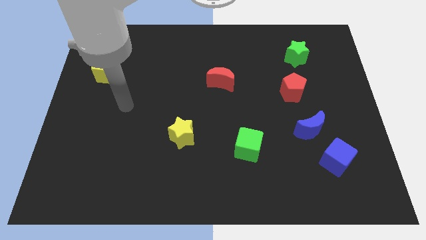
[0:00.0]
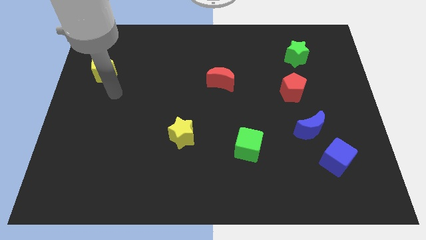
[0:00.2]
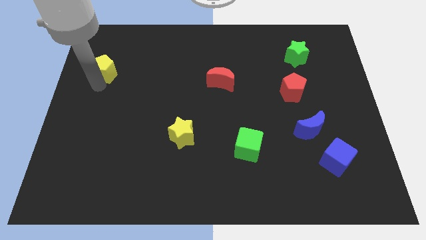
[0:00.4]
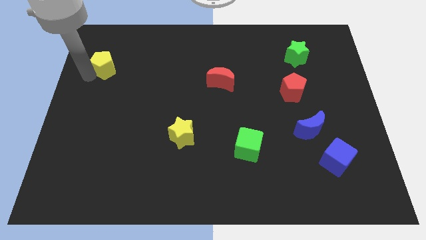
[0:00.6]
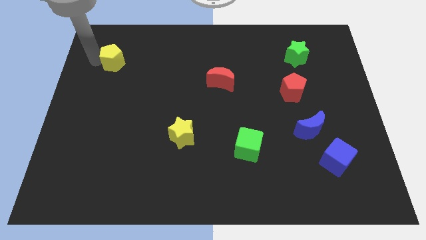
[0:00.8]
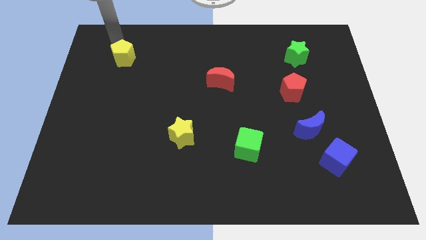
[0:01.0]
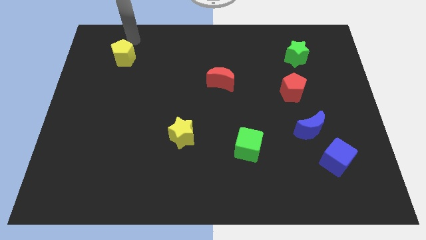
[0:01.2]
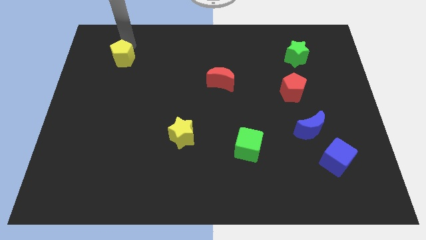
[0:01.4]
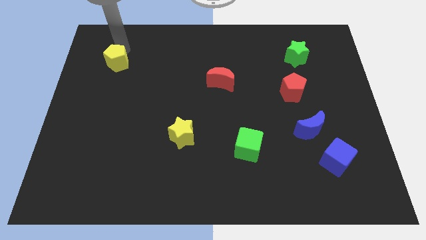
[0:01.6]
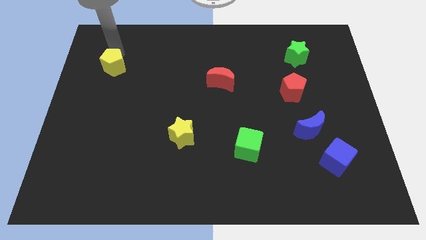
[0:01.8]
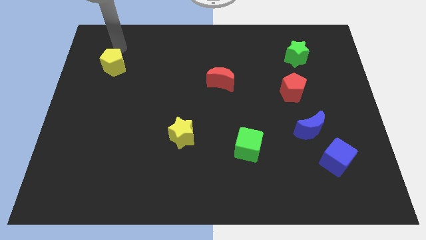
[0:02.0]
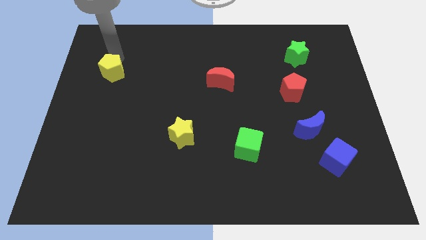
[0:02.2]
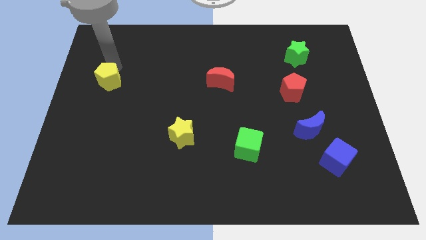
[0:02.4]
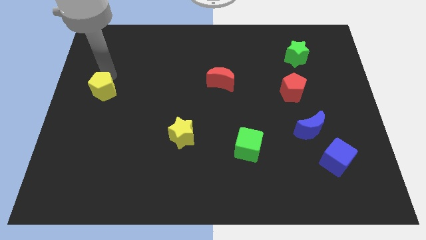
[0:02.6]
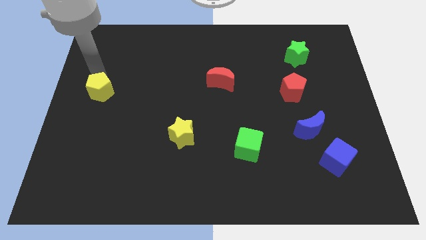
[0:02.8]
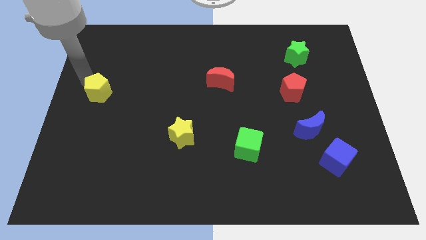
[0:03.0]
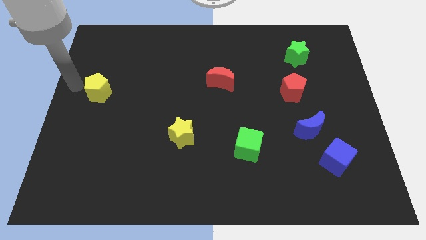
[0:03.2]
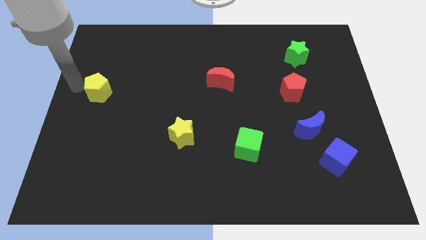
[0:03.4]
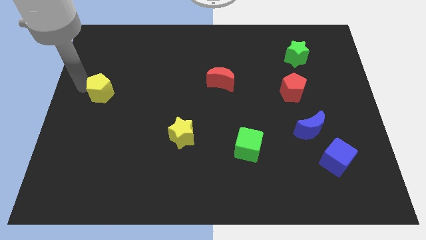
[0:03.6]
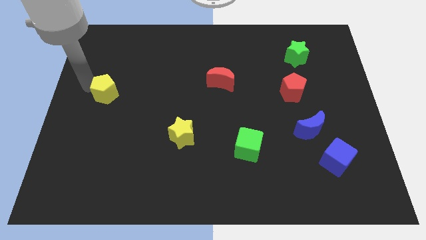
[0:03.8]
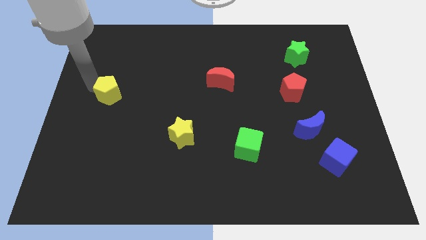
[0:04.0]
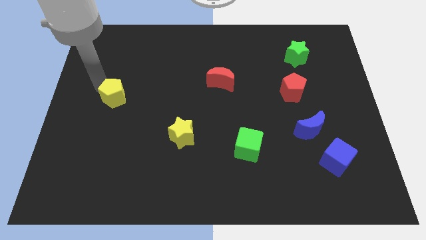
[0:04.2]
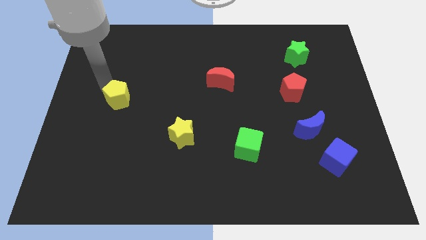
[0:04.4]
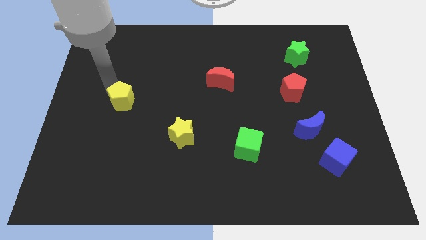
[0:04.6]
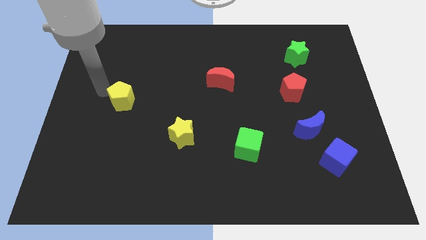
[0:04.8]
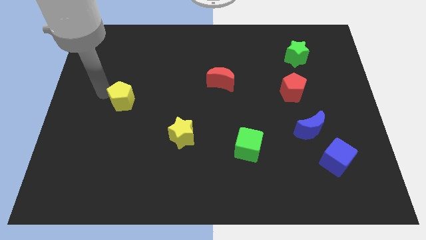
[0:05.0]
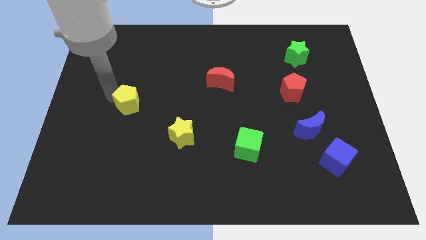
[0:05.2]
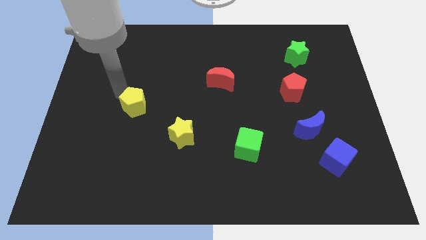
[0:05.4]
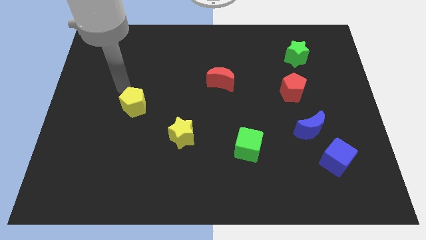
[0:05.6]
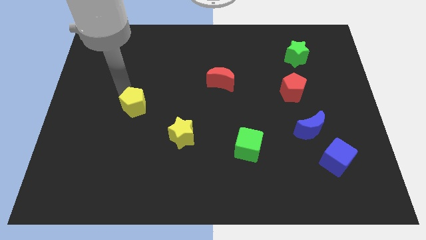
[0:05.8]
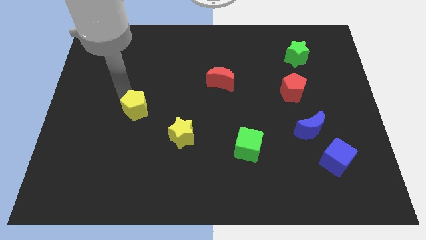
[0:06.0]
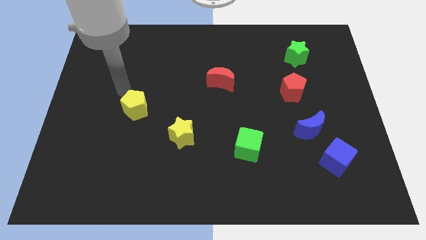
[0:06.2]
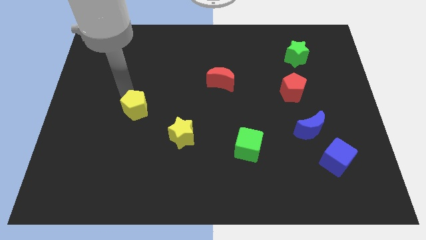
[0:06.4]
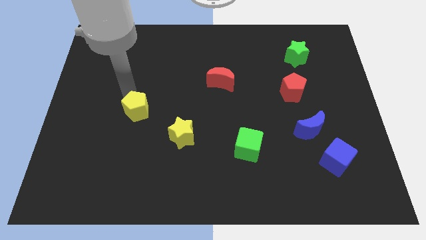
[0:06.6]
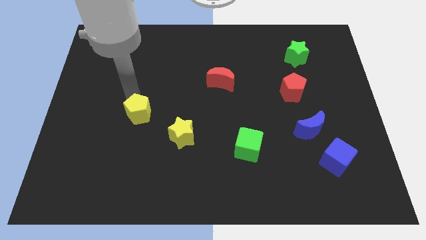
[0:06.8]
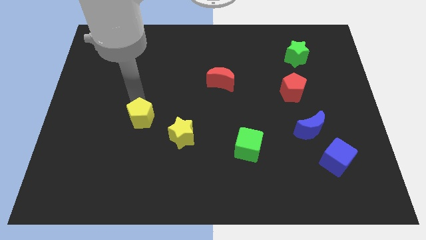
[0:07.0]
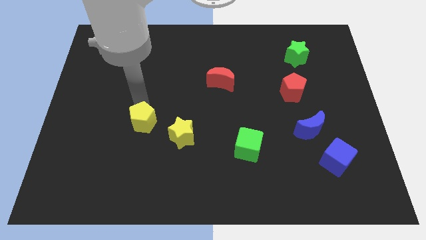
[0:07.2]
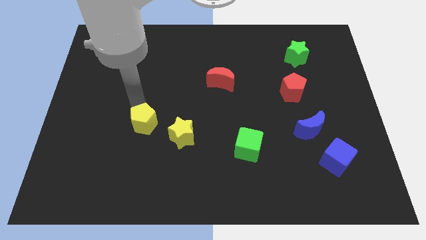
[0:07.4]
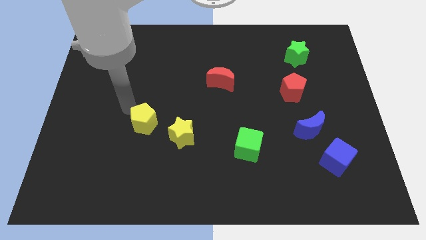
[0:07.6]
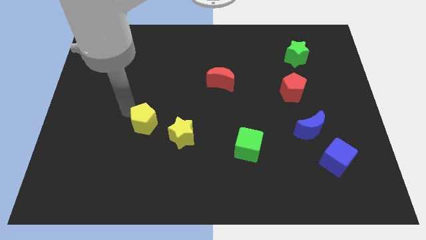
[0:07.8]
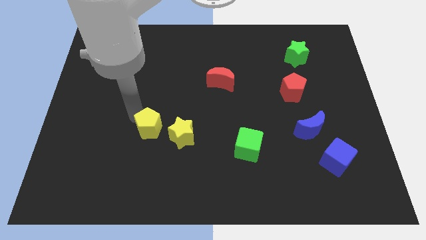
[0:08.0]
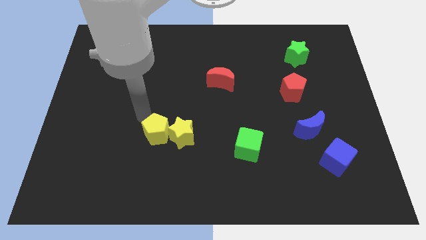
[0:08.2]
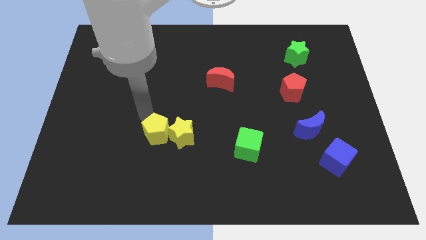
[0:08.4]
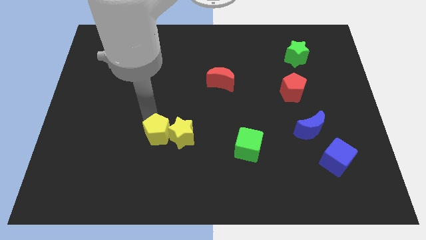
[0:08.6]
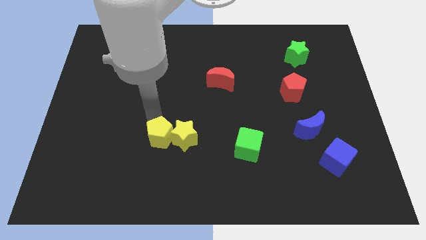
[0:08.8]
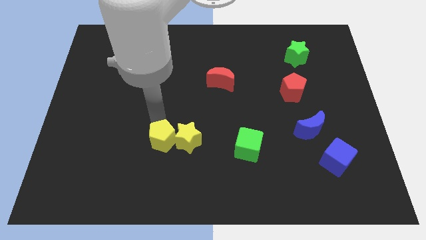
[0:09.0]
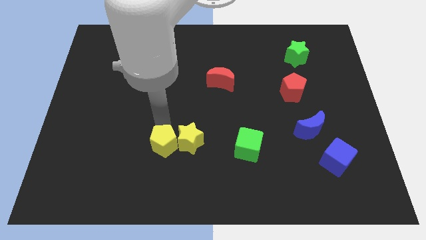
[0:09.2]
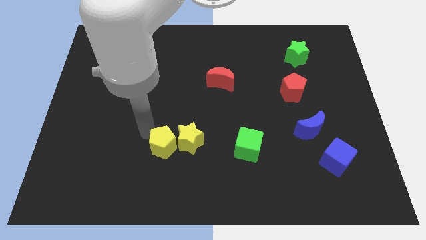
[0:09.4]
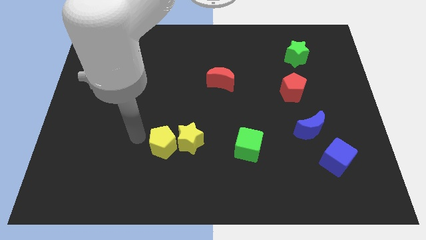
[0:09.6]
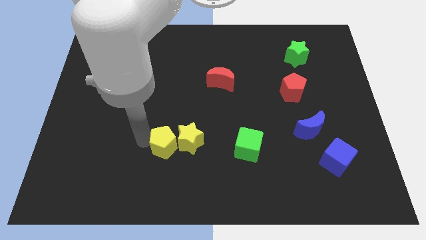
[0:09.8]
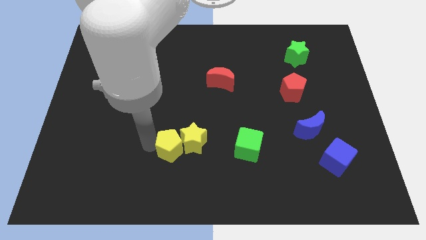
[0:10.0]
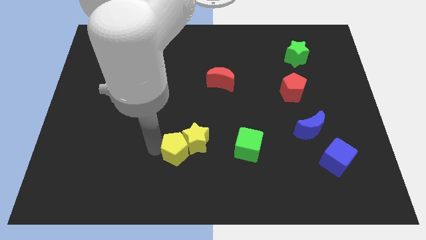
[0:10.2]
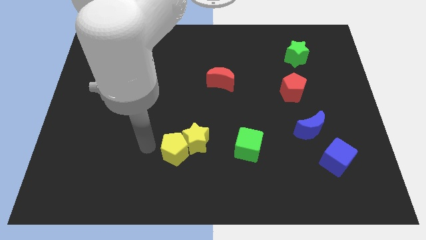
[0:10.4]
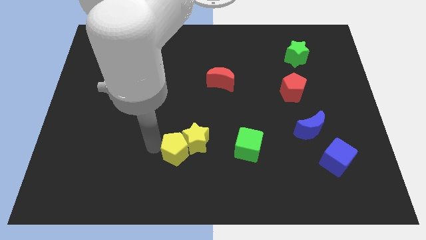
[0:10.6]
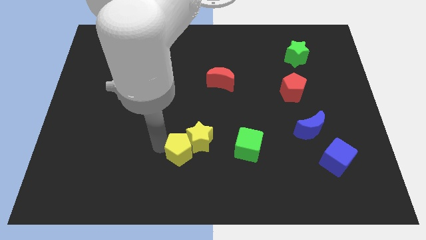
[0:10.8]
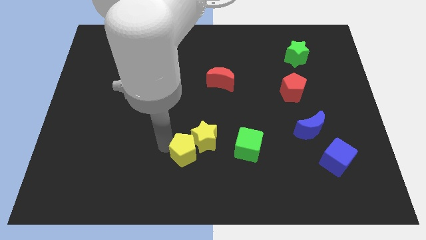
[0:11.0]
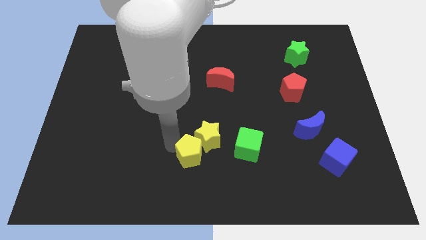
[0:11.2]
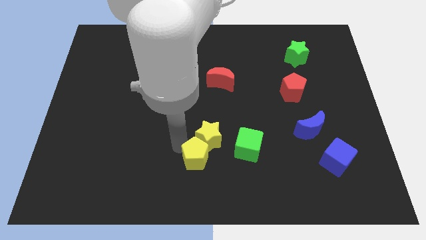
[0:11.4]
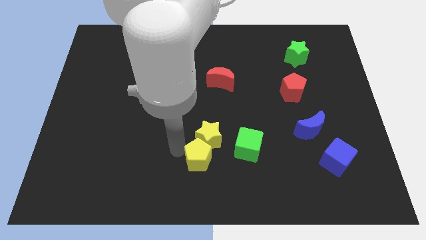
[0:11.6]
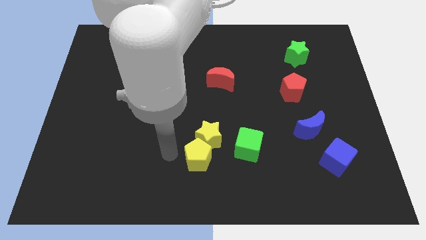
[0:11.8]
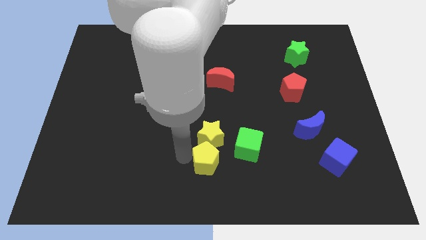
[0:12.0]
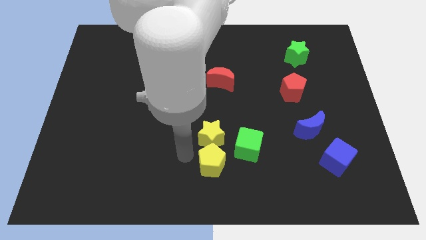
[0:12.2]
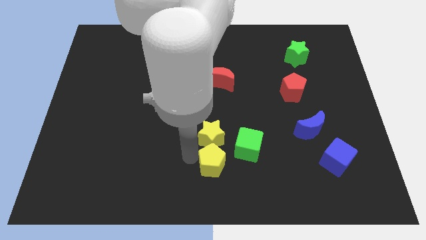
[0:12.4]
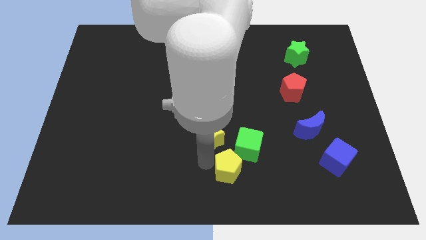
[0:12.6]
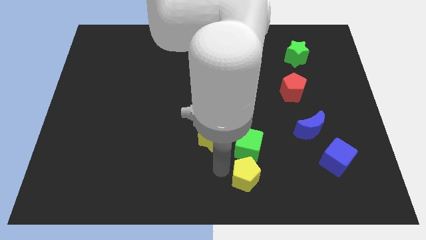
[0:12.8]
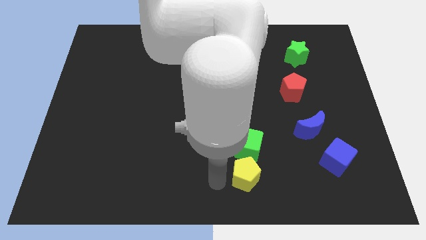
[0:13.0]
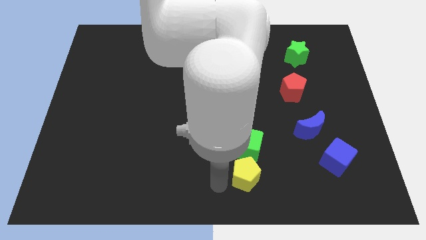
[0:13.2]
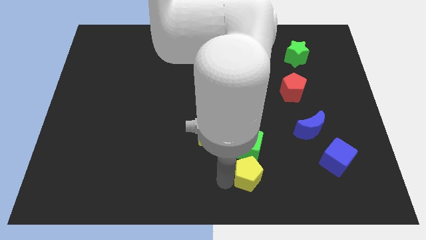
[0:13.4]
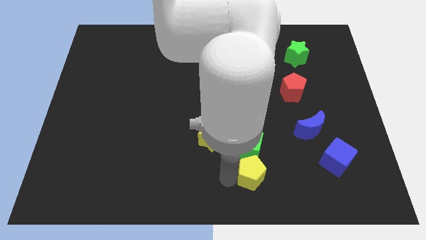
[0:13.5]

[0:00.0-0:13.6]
slide the yellow pentagon diagonally down and to the right of the green cube
